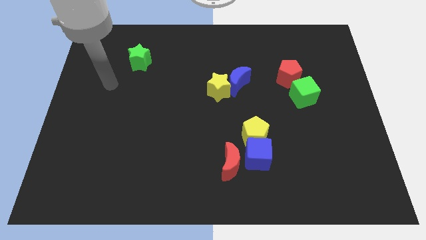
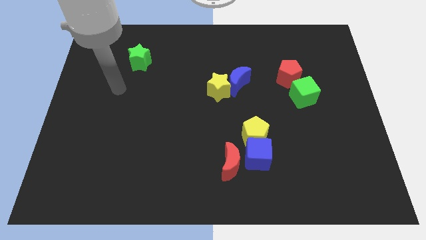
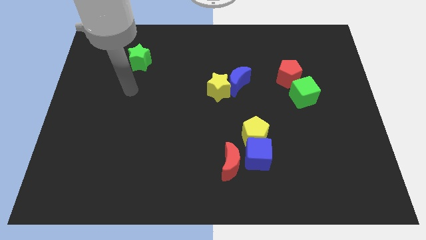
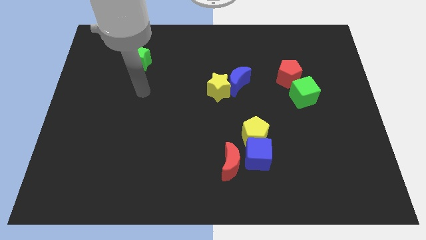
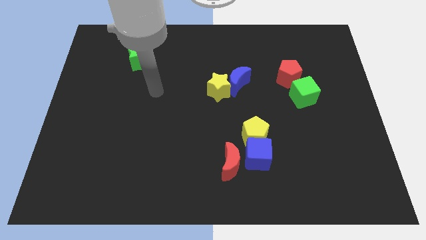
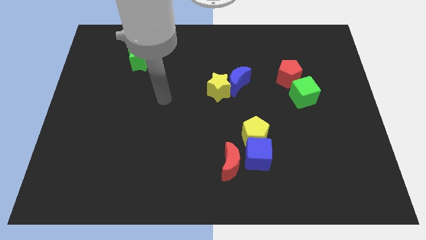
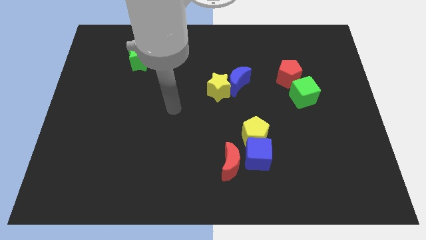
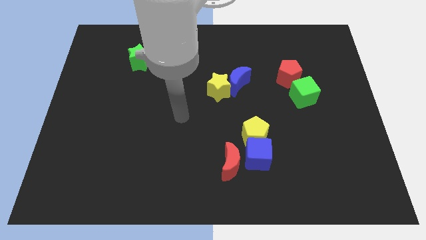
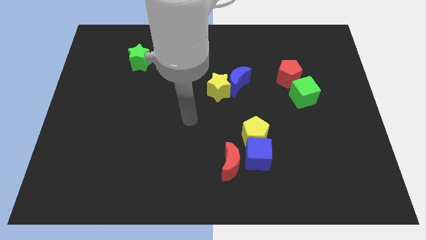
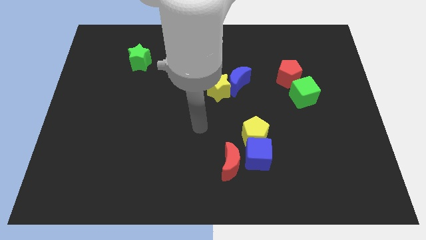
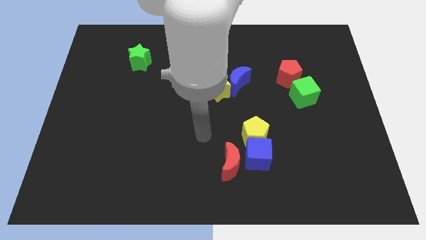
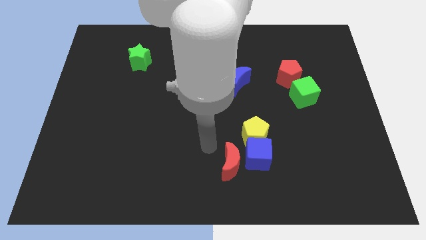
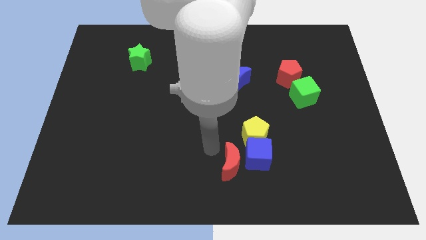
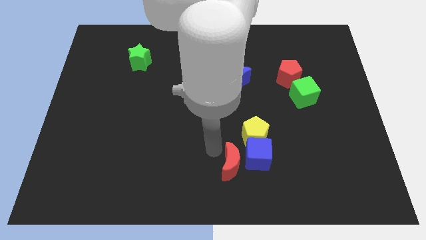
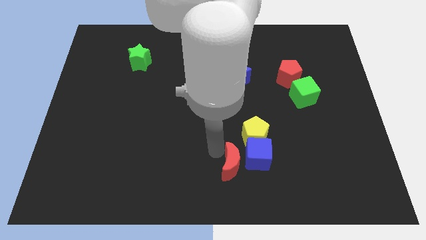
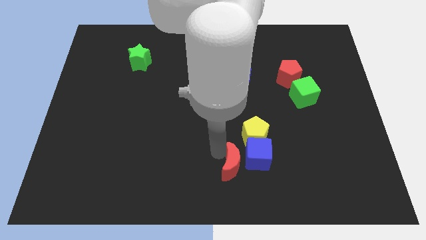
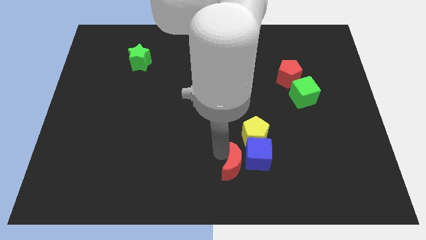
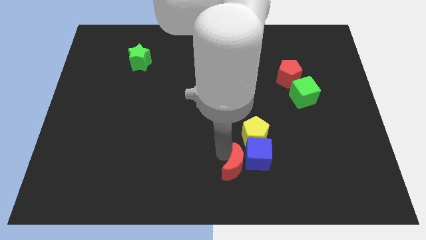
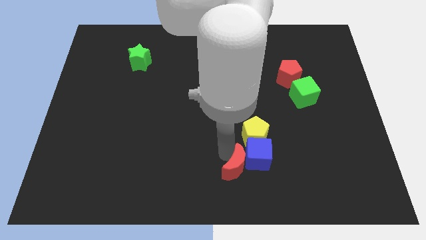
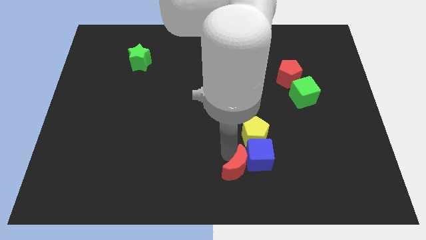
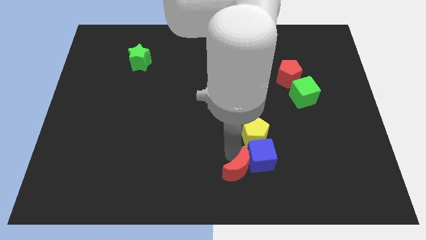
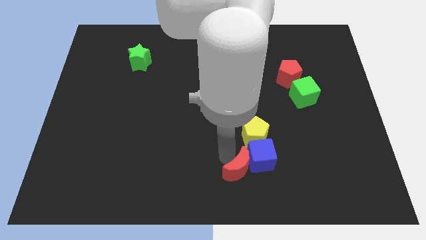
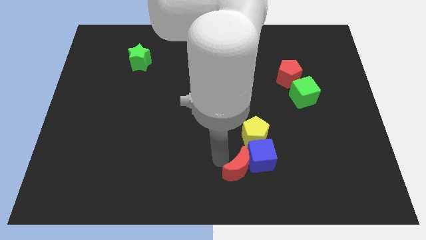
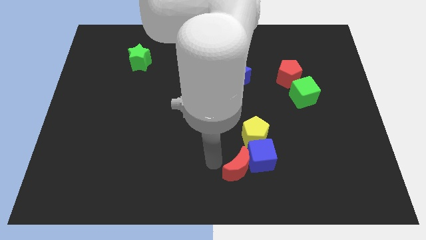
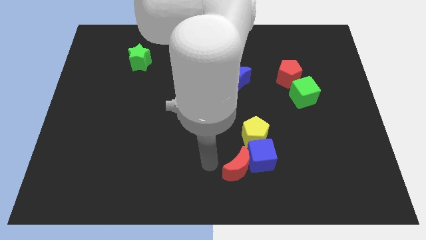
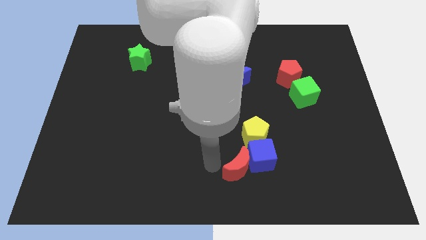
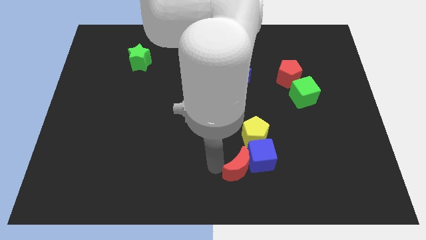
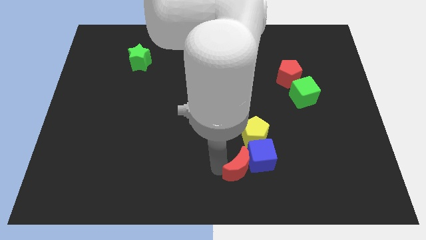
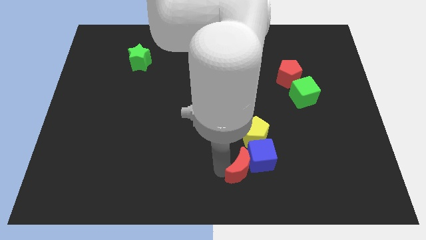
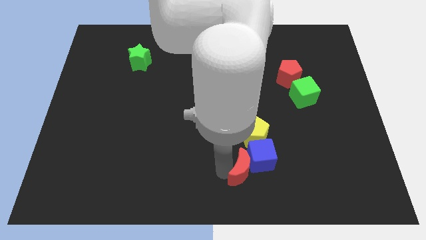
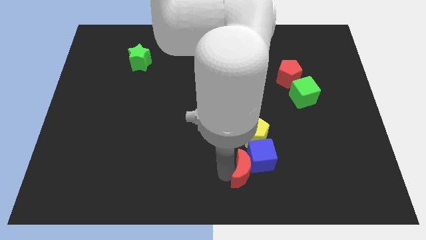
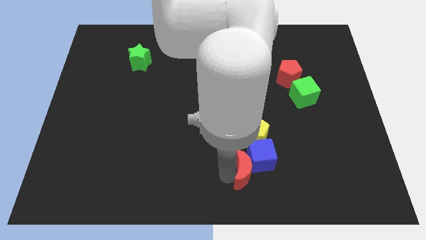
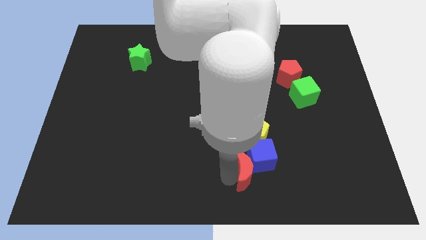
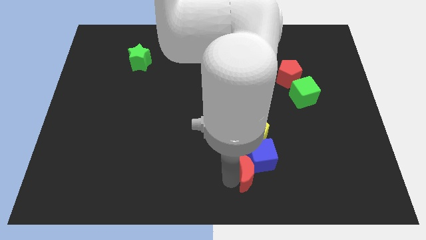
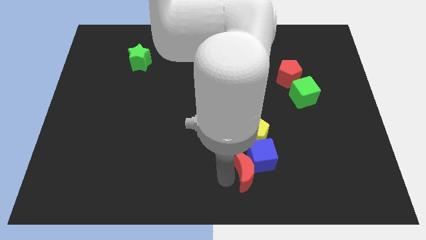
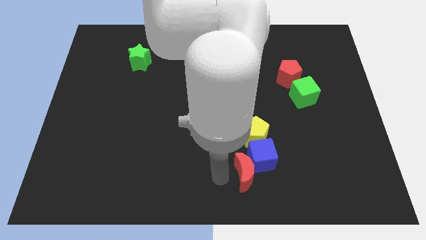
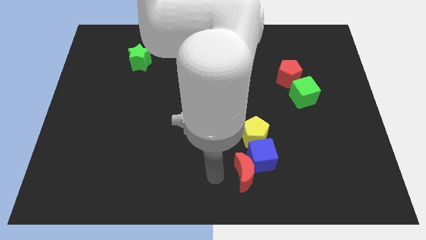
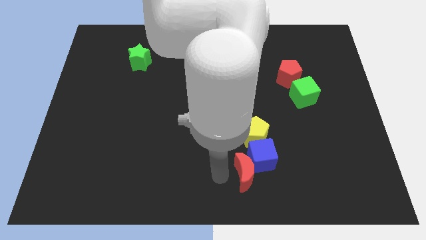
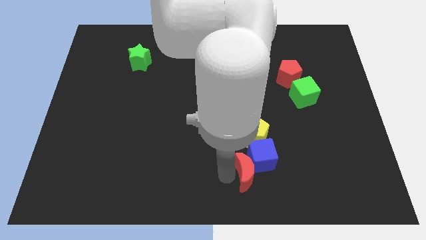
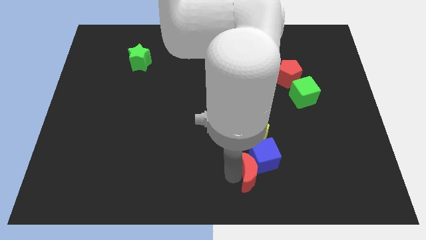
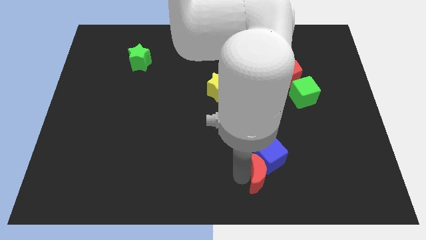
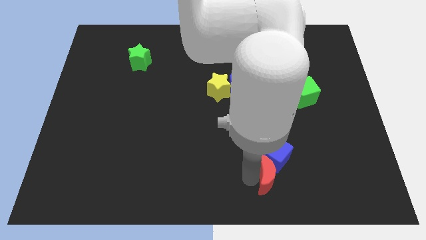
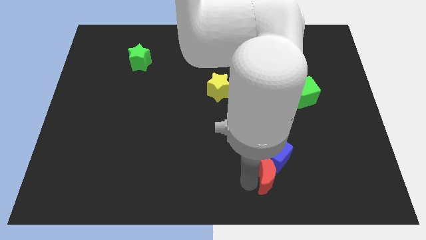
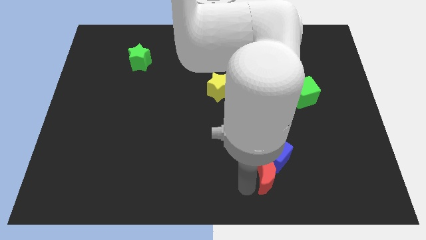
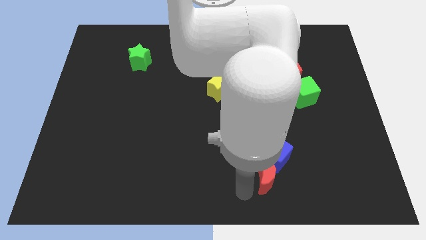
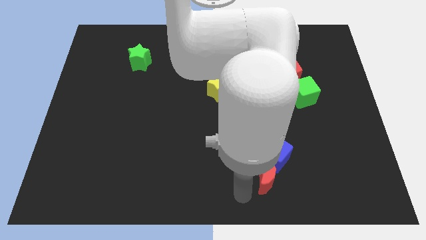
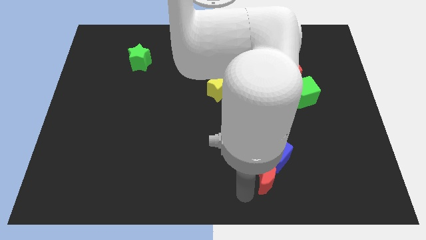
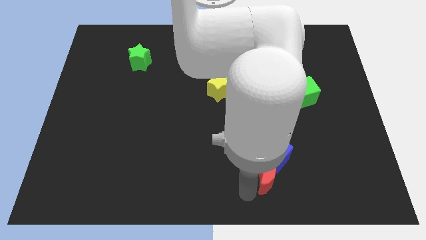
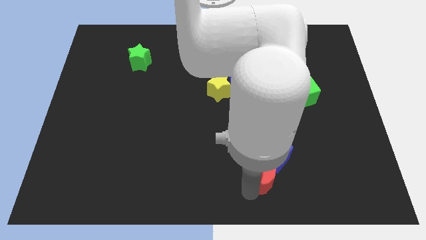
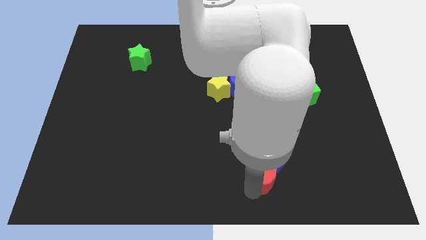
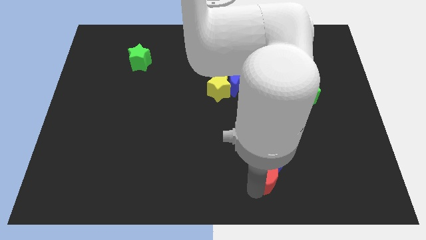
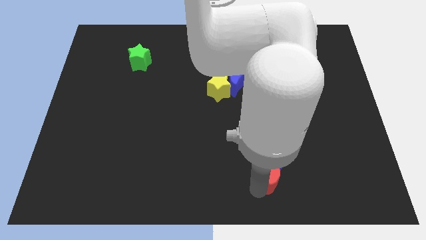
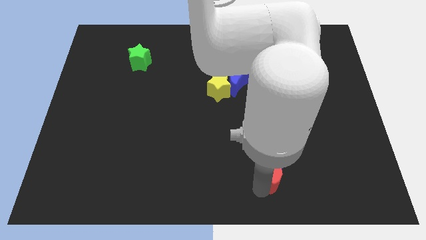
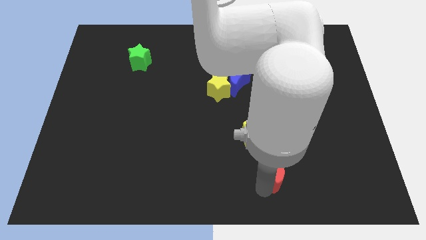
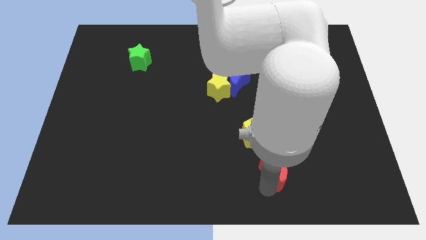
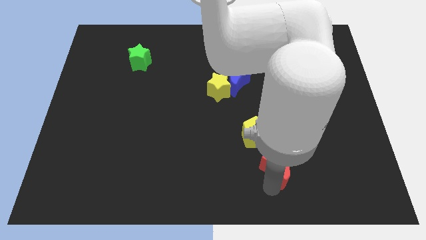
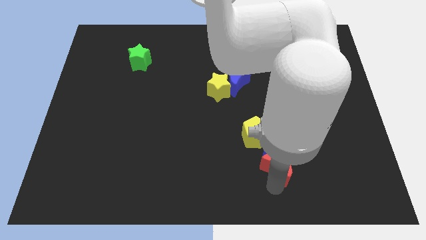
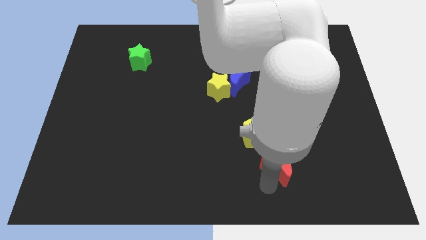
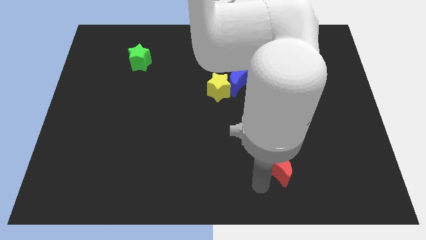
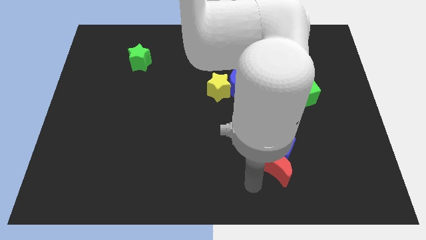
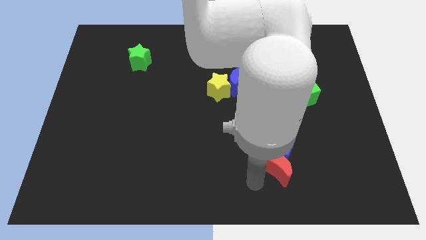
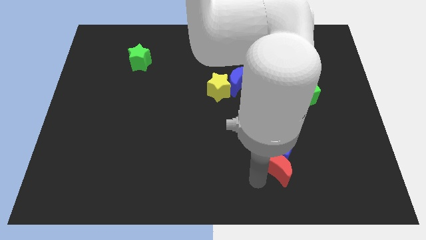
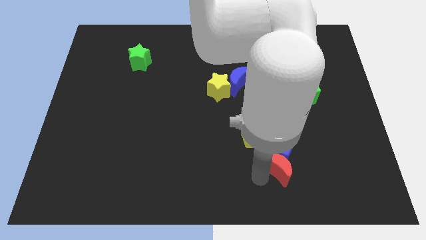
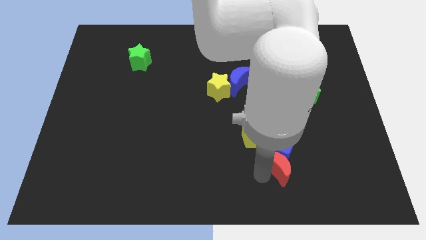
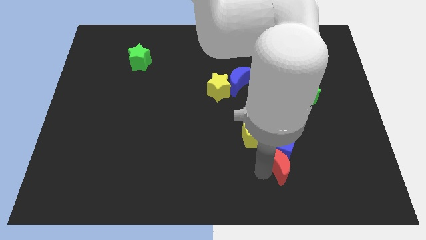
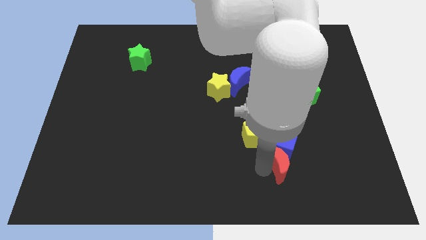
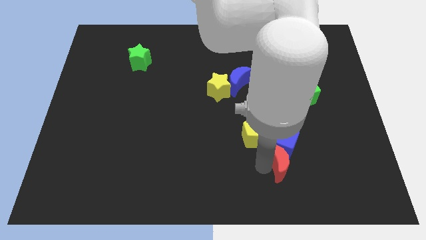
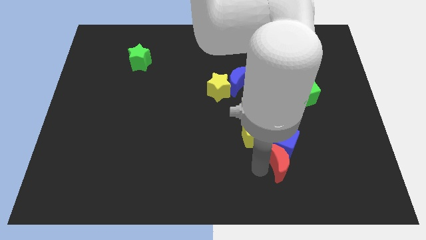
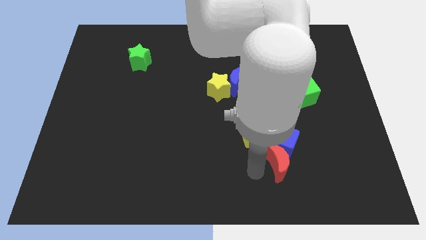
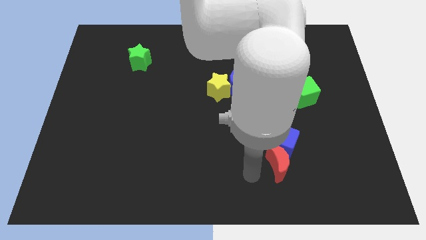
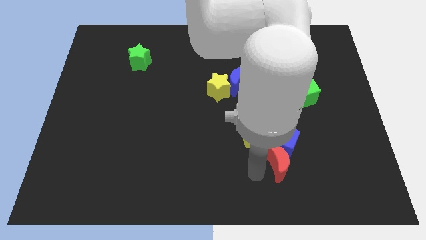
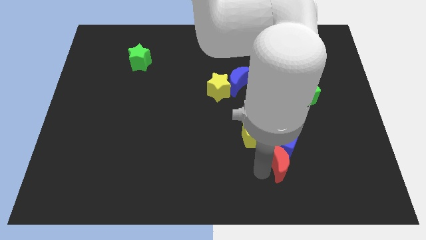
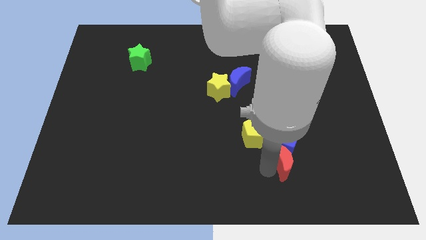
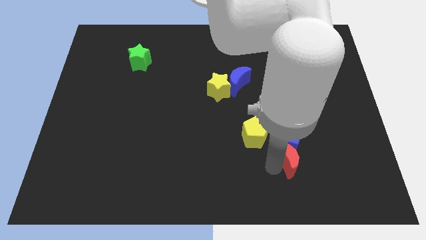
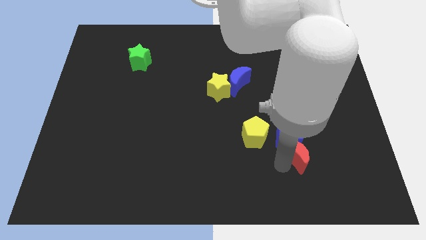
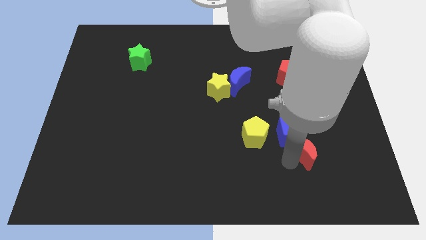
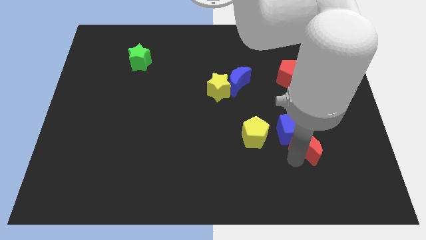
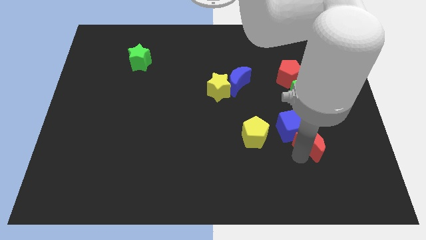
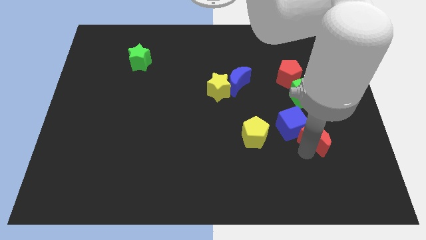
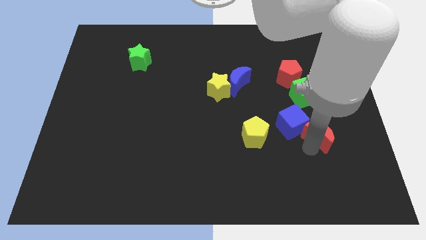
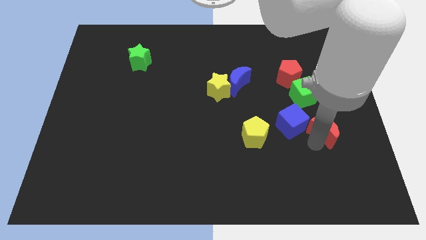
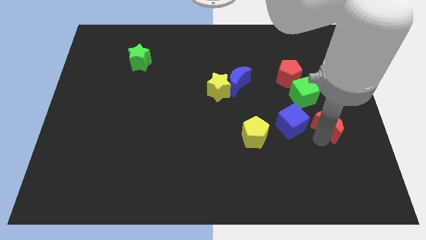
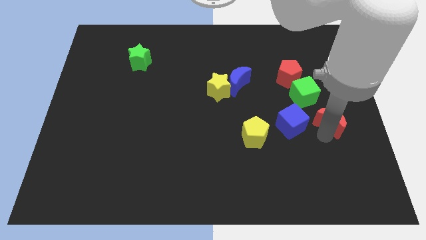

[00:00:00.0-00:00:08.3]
slide the red moon diagonally upwards and right
